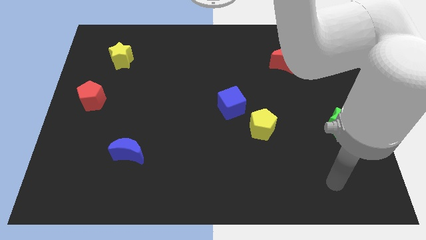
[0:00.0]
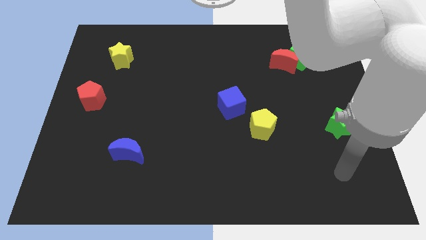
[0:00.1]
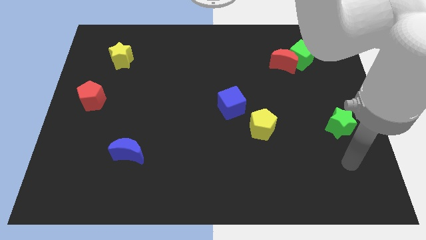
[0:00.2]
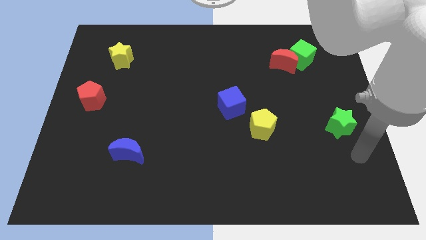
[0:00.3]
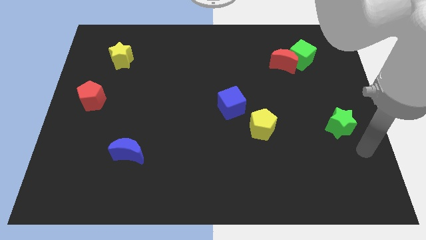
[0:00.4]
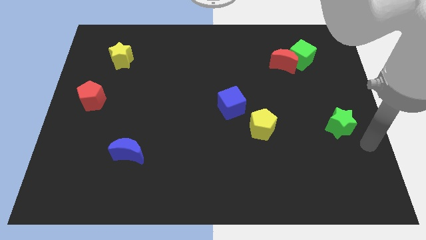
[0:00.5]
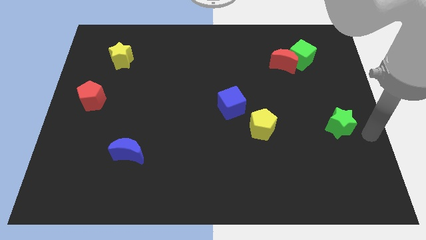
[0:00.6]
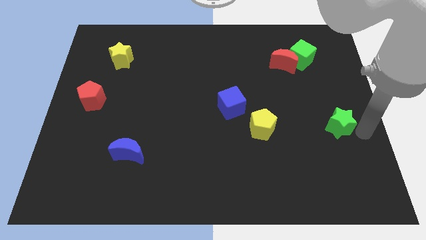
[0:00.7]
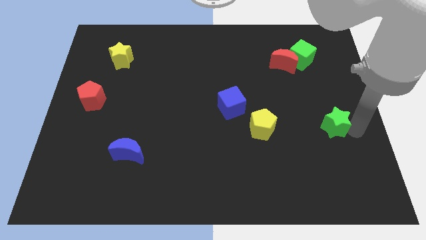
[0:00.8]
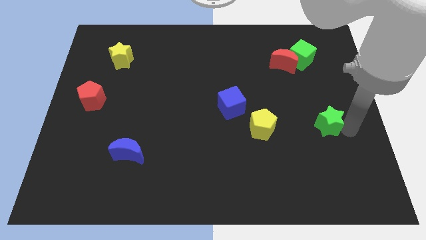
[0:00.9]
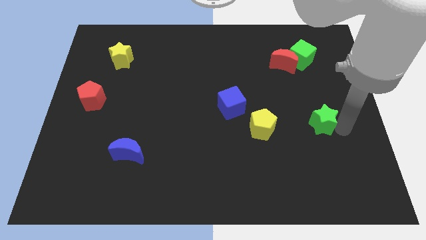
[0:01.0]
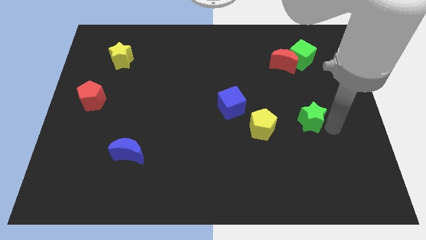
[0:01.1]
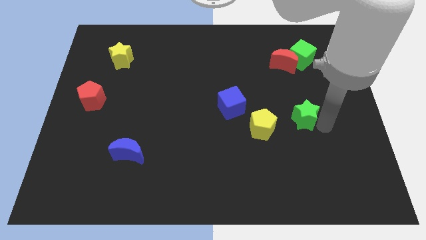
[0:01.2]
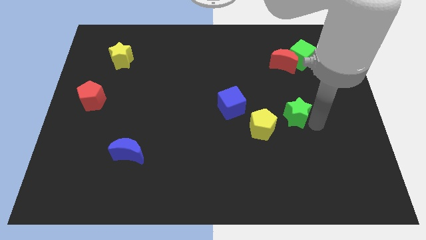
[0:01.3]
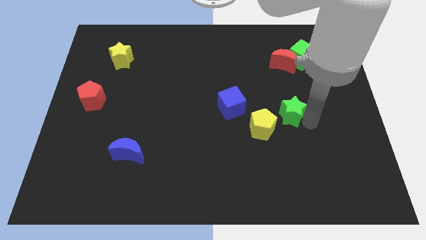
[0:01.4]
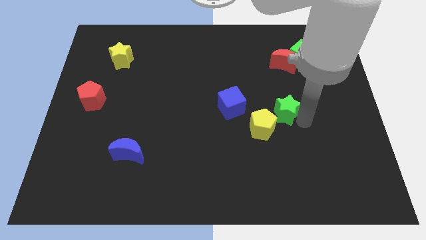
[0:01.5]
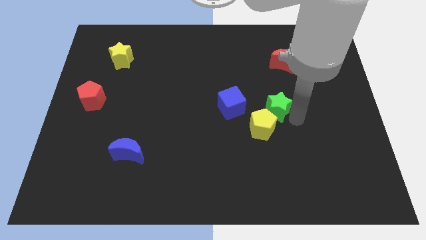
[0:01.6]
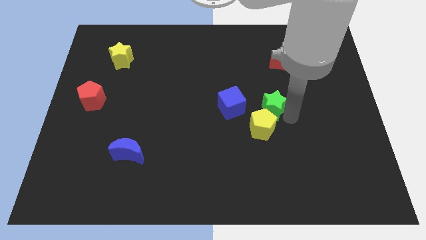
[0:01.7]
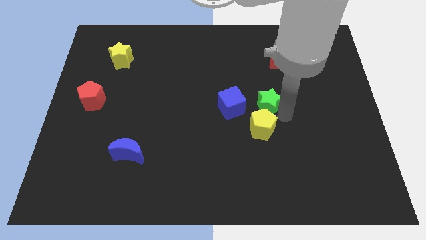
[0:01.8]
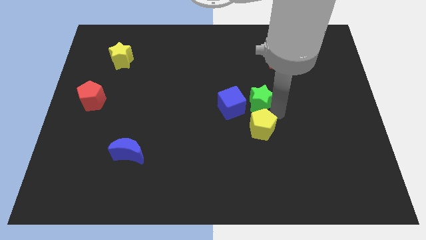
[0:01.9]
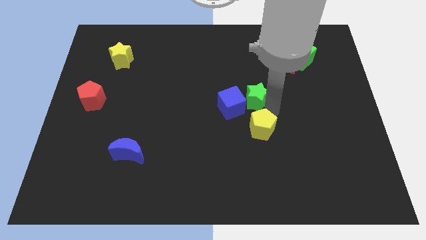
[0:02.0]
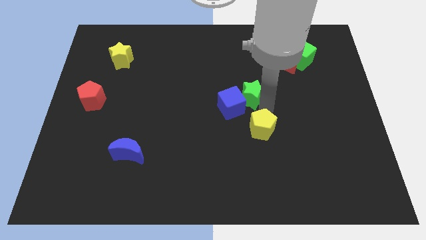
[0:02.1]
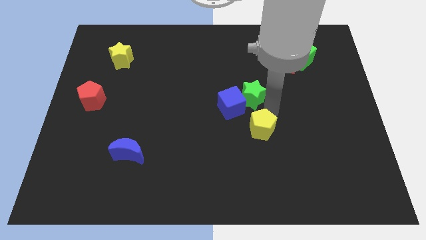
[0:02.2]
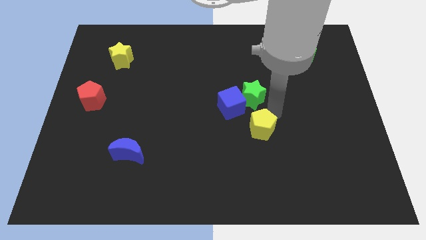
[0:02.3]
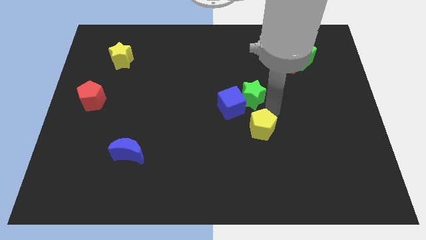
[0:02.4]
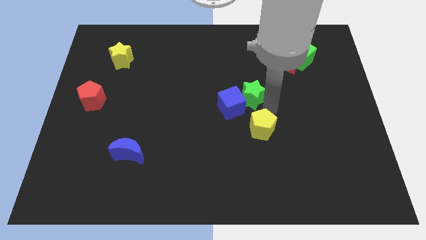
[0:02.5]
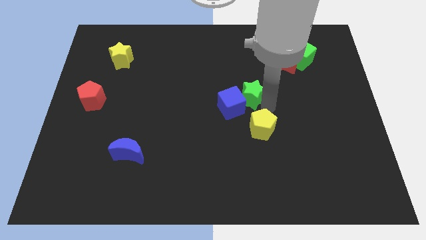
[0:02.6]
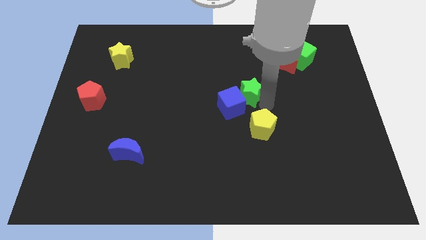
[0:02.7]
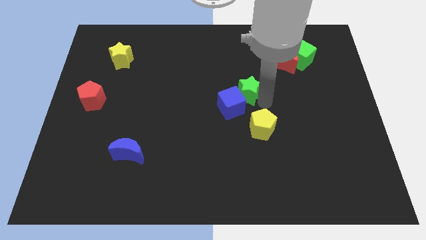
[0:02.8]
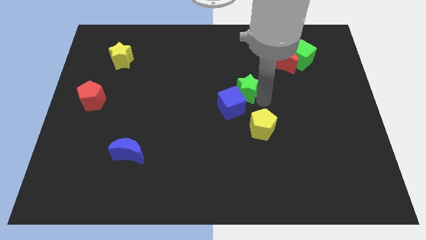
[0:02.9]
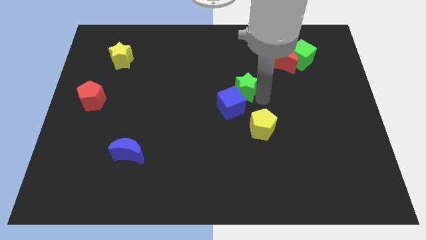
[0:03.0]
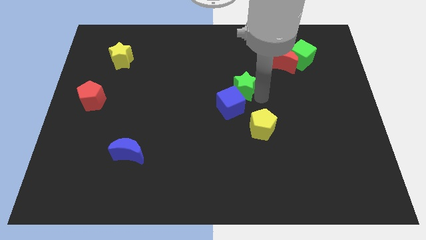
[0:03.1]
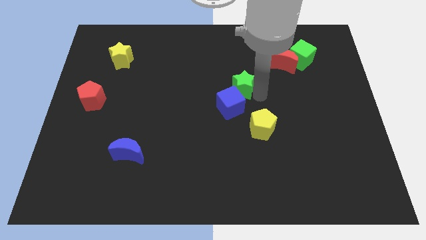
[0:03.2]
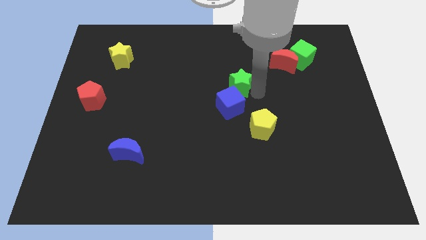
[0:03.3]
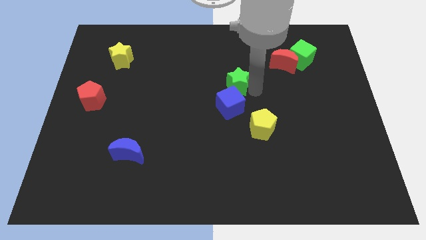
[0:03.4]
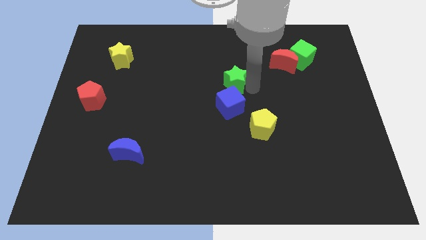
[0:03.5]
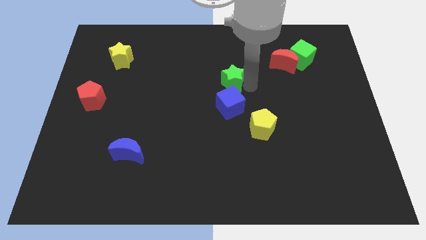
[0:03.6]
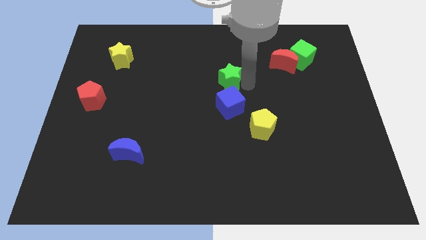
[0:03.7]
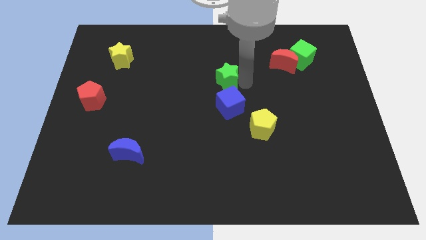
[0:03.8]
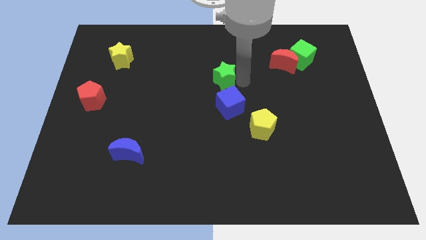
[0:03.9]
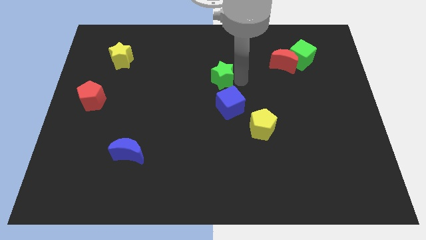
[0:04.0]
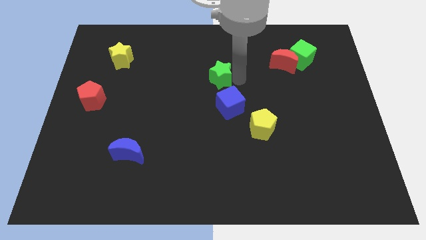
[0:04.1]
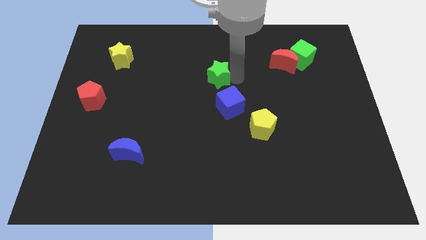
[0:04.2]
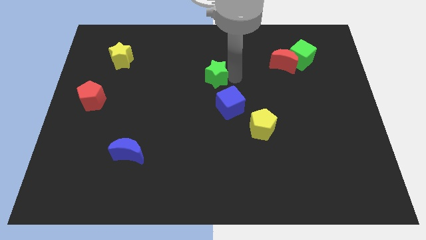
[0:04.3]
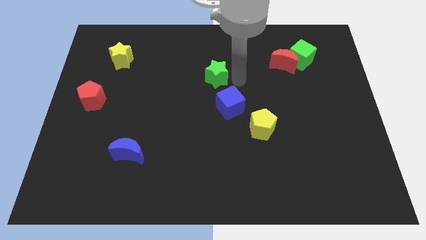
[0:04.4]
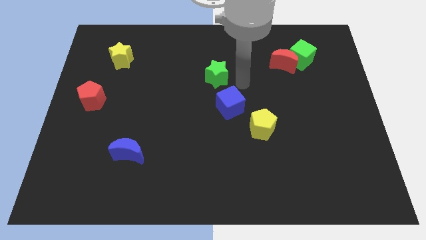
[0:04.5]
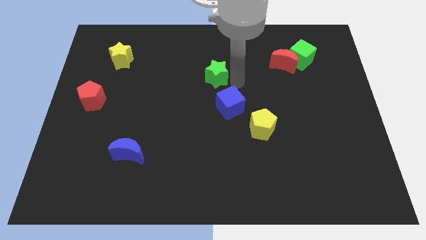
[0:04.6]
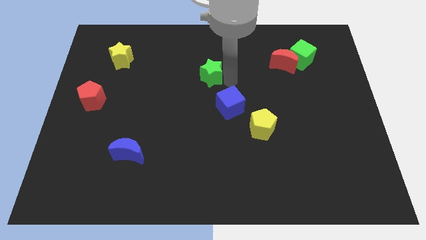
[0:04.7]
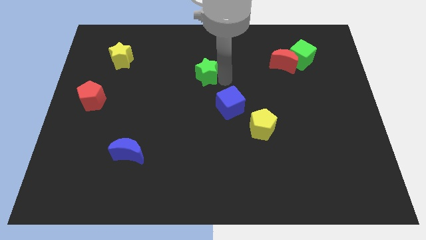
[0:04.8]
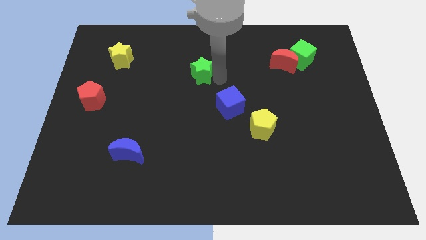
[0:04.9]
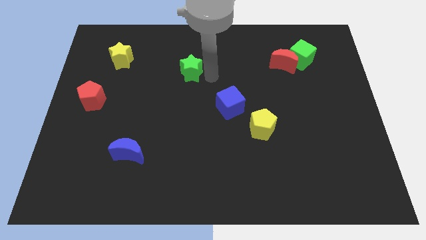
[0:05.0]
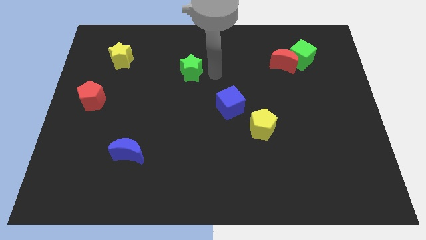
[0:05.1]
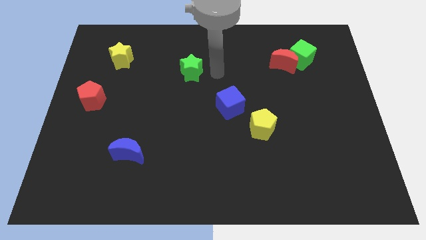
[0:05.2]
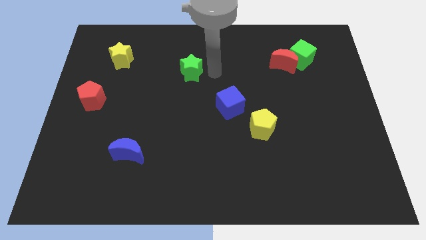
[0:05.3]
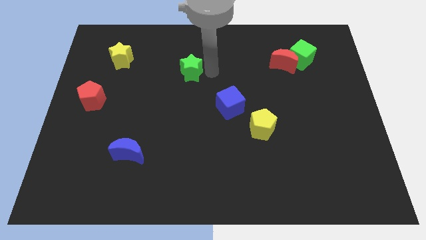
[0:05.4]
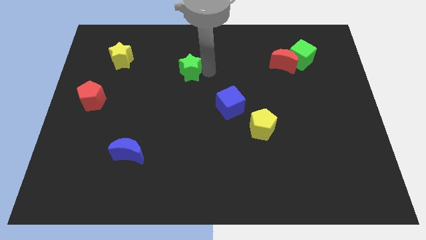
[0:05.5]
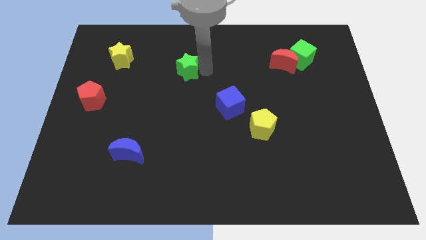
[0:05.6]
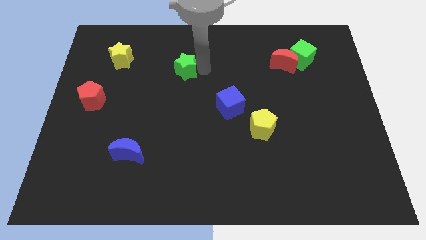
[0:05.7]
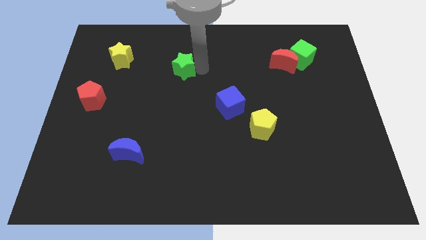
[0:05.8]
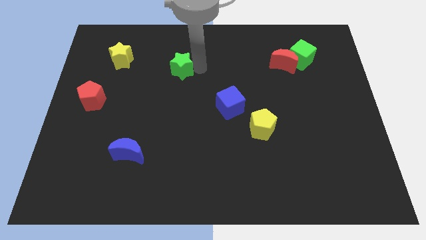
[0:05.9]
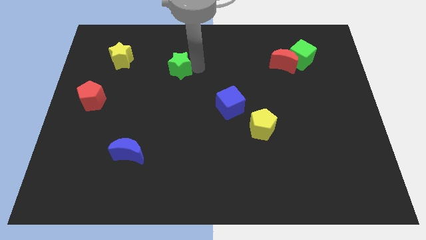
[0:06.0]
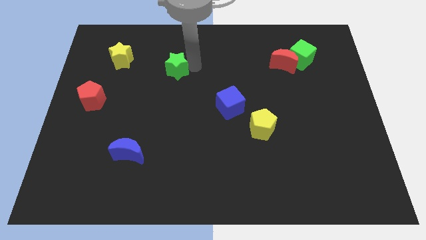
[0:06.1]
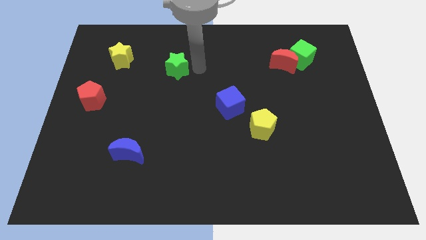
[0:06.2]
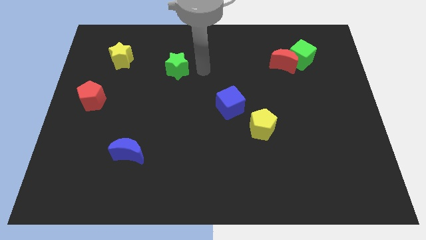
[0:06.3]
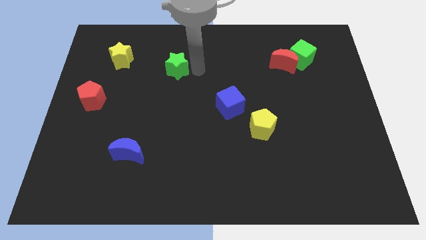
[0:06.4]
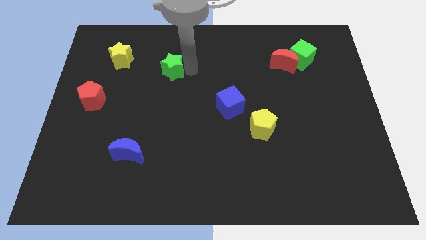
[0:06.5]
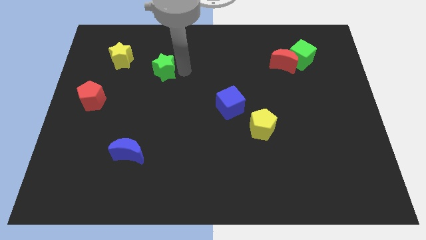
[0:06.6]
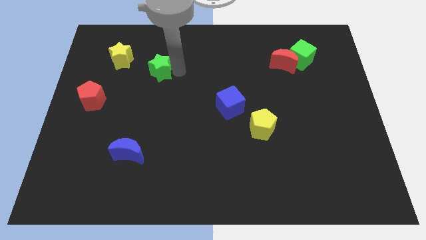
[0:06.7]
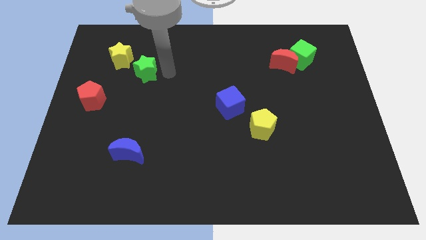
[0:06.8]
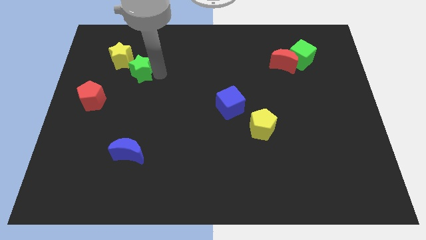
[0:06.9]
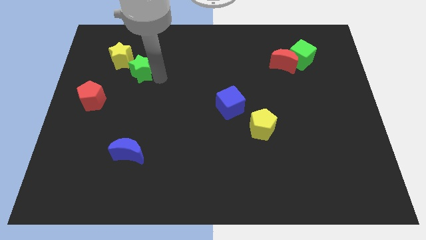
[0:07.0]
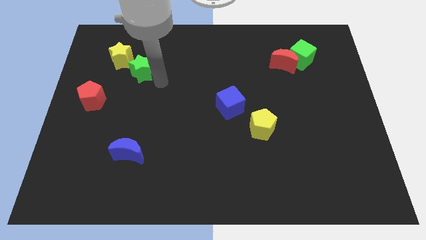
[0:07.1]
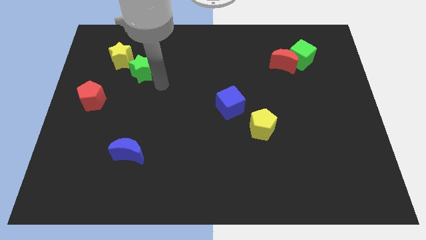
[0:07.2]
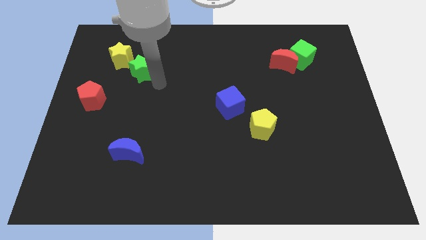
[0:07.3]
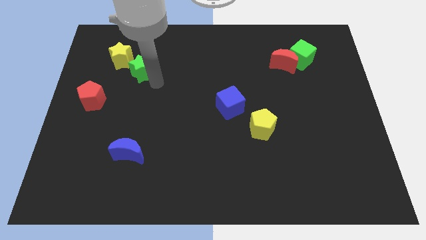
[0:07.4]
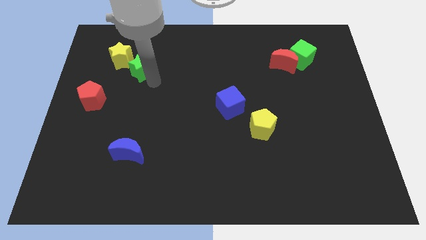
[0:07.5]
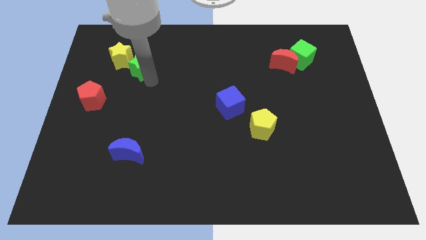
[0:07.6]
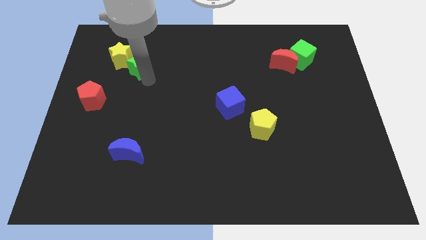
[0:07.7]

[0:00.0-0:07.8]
slide the green star to the yellow star
